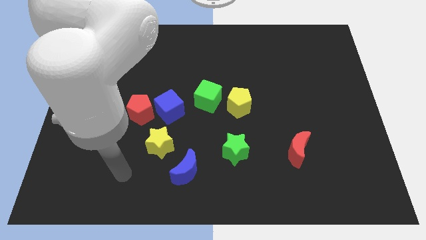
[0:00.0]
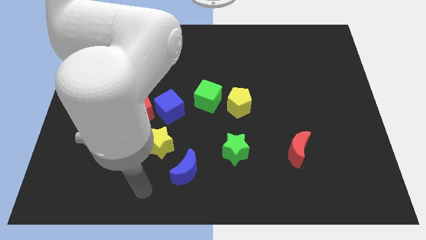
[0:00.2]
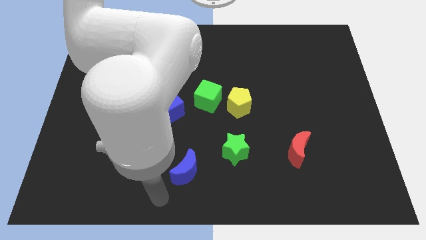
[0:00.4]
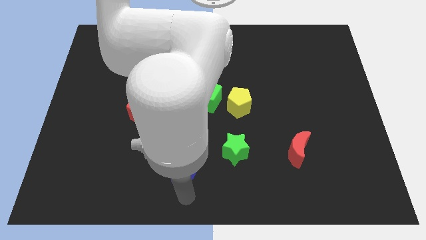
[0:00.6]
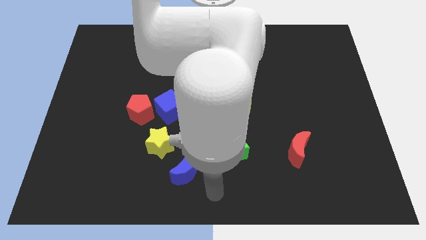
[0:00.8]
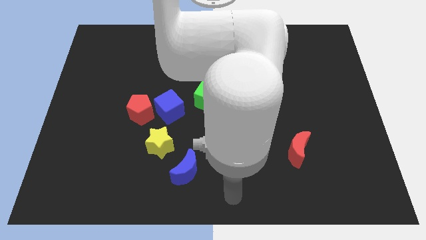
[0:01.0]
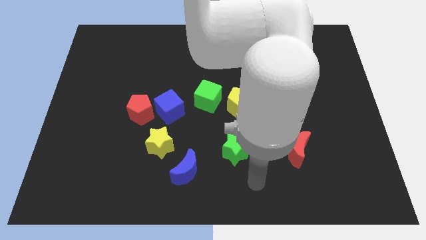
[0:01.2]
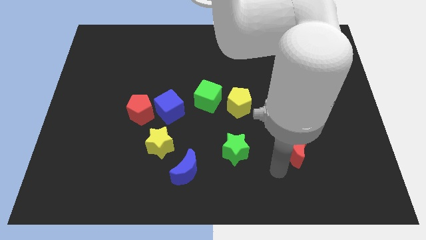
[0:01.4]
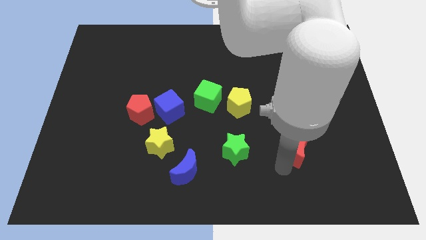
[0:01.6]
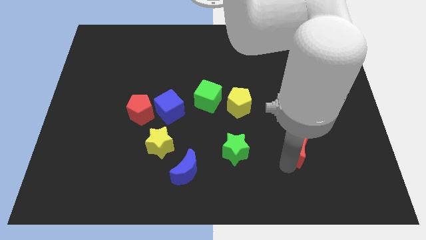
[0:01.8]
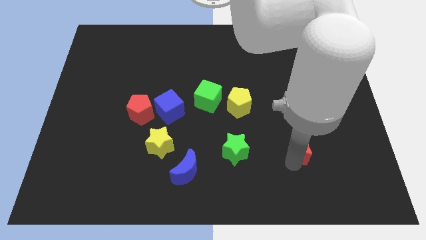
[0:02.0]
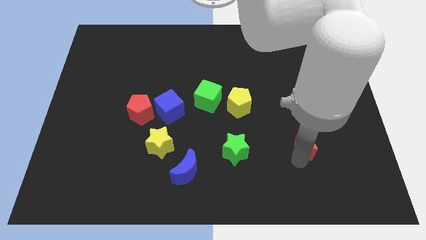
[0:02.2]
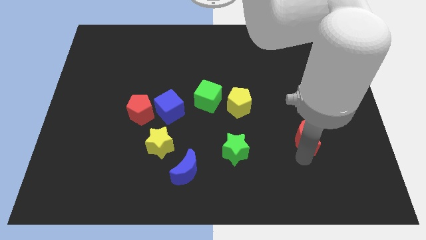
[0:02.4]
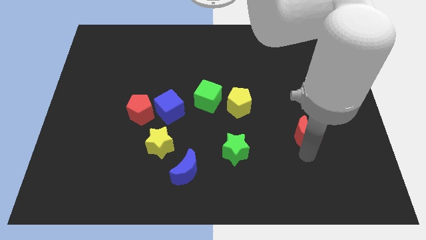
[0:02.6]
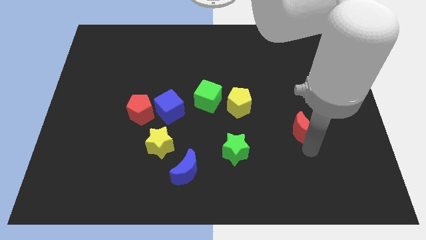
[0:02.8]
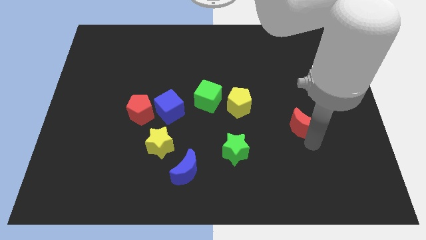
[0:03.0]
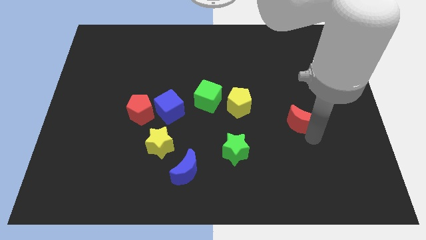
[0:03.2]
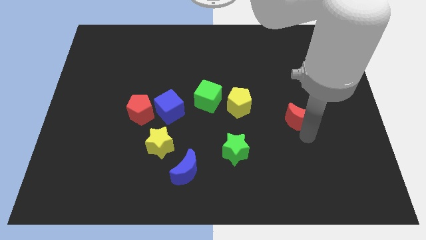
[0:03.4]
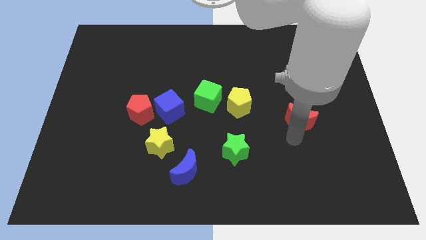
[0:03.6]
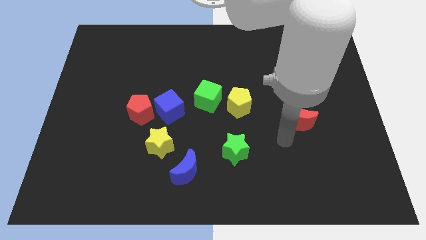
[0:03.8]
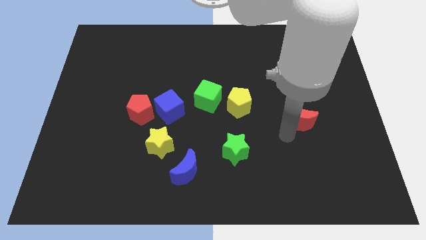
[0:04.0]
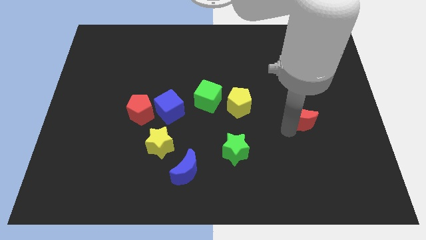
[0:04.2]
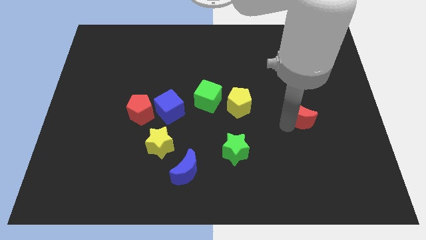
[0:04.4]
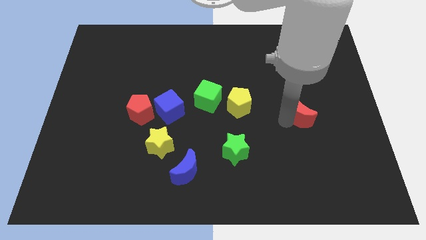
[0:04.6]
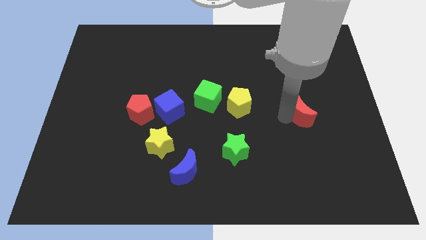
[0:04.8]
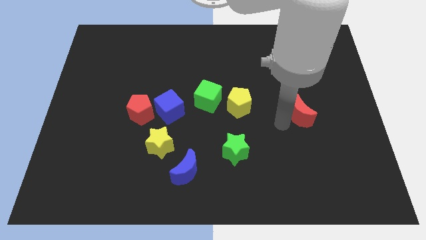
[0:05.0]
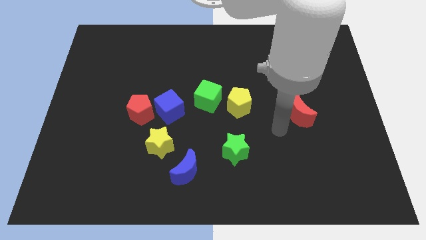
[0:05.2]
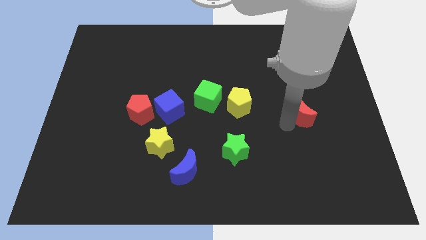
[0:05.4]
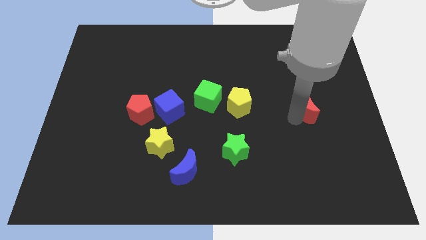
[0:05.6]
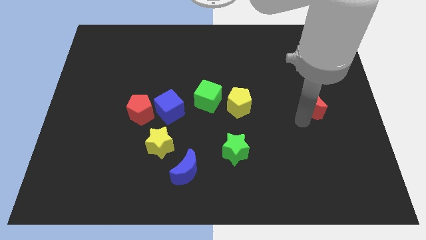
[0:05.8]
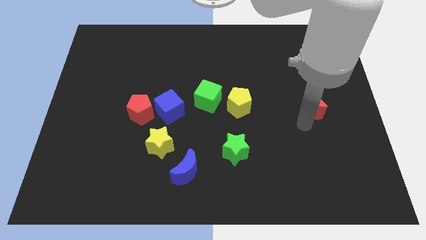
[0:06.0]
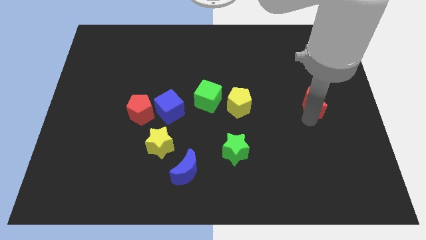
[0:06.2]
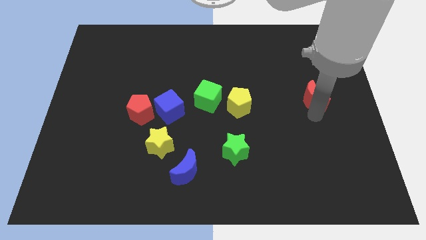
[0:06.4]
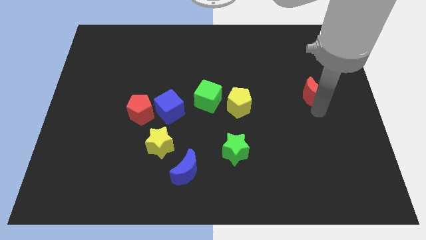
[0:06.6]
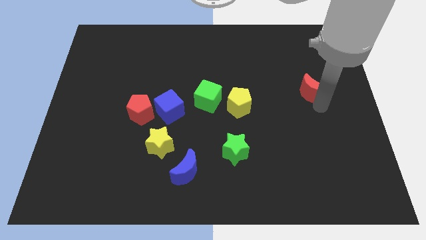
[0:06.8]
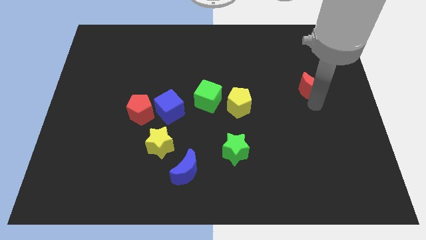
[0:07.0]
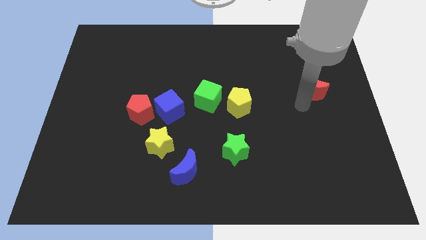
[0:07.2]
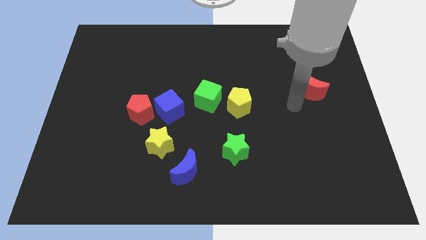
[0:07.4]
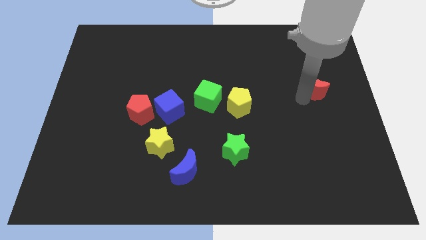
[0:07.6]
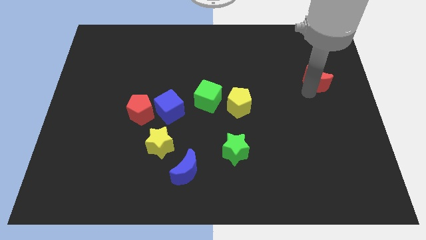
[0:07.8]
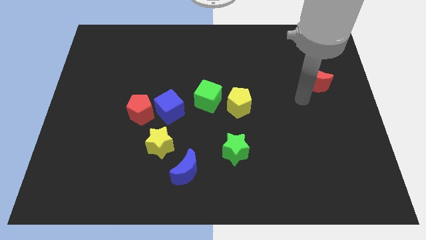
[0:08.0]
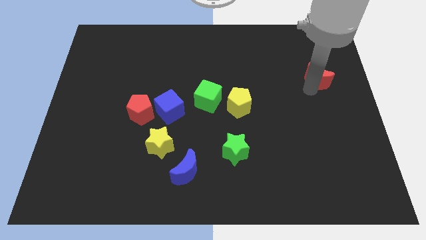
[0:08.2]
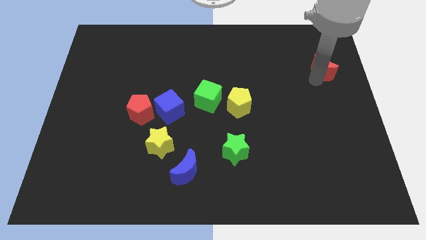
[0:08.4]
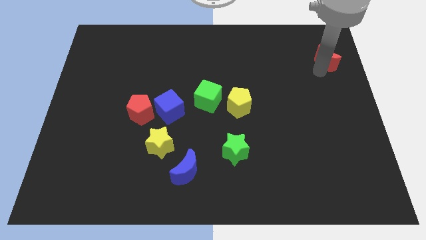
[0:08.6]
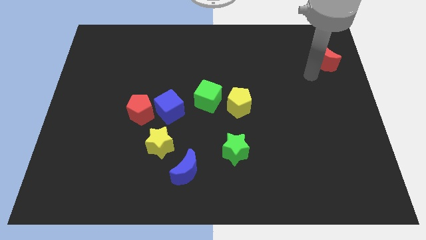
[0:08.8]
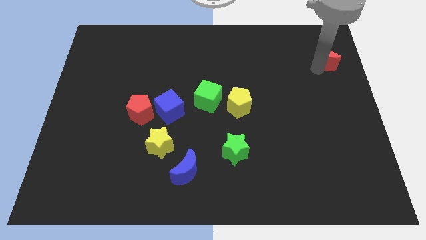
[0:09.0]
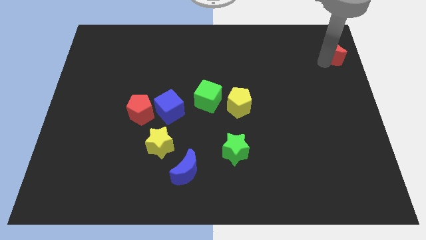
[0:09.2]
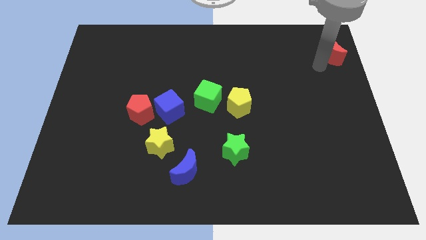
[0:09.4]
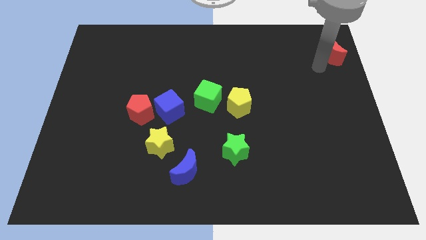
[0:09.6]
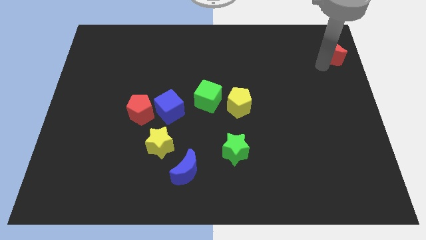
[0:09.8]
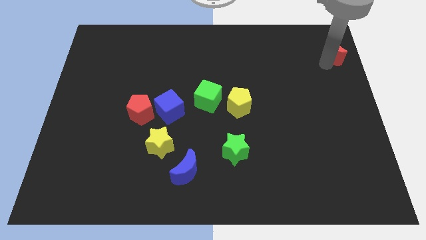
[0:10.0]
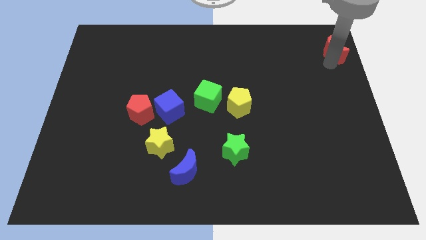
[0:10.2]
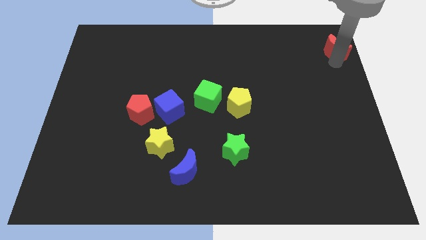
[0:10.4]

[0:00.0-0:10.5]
push the red moon to the top right of the board

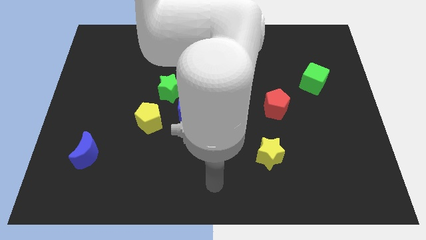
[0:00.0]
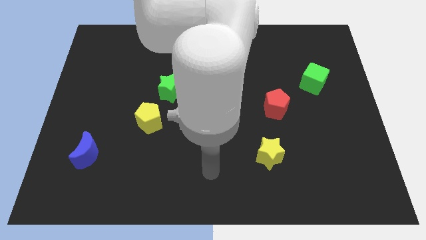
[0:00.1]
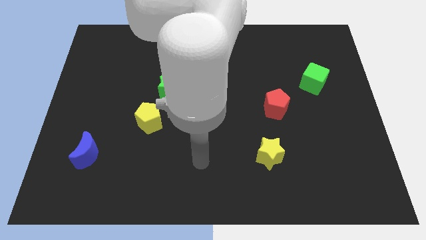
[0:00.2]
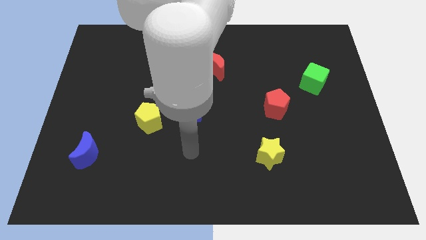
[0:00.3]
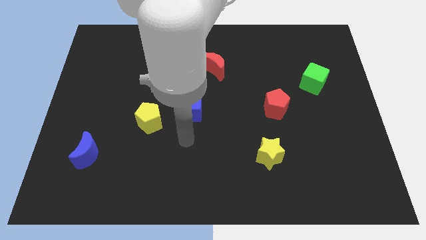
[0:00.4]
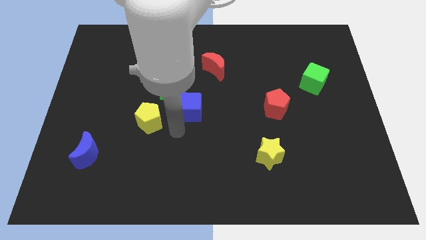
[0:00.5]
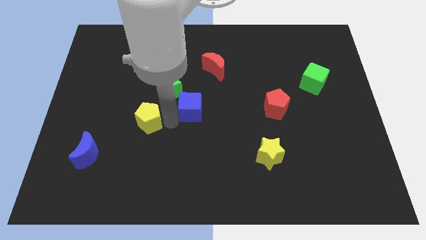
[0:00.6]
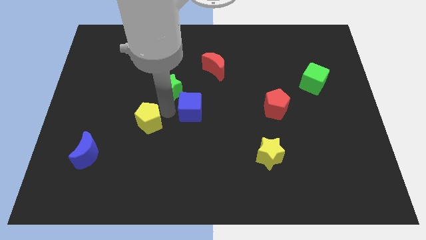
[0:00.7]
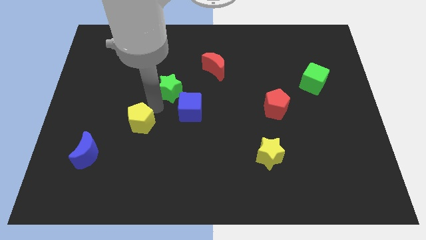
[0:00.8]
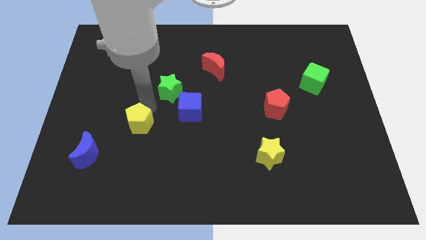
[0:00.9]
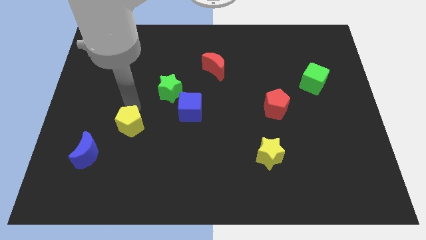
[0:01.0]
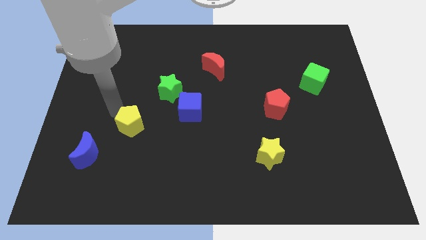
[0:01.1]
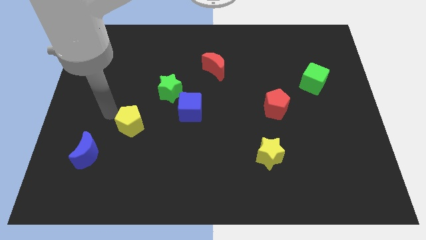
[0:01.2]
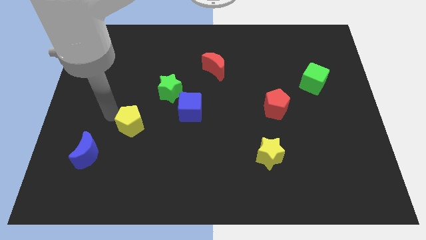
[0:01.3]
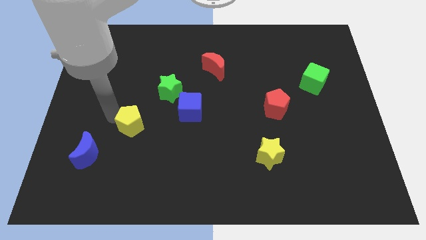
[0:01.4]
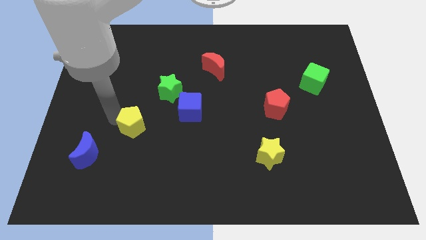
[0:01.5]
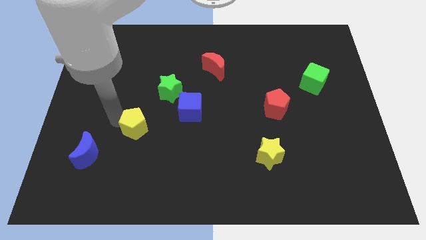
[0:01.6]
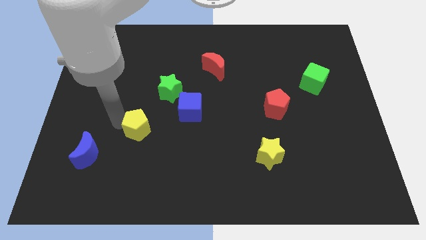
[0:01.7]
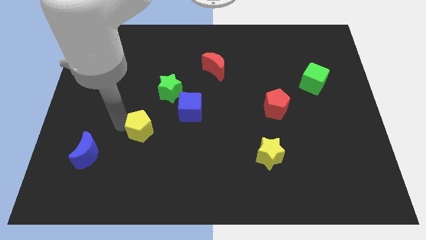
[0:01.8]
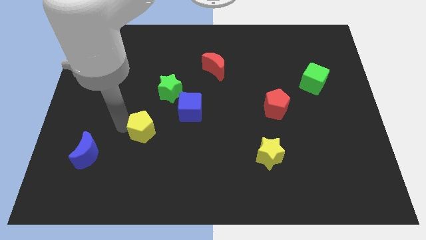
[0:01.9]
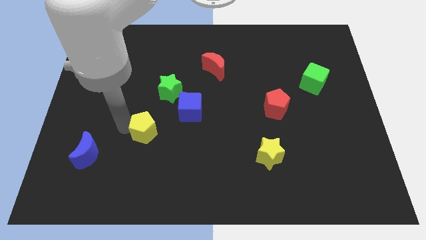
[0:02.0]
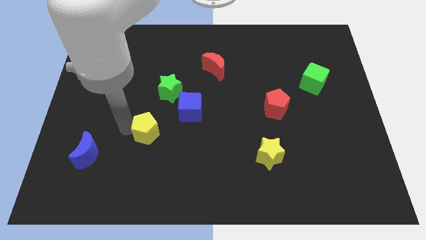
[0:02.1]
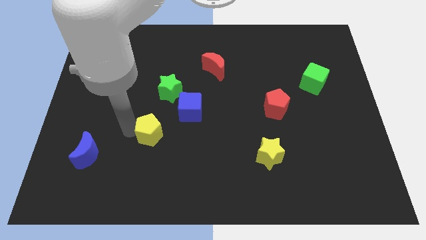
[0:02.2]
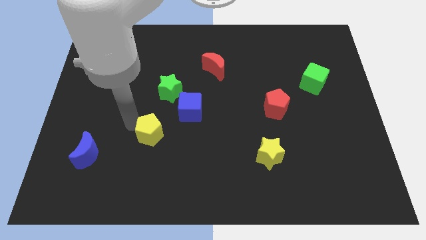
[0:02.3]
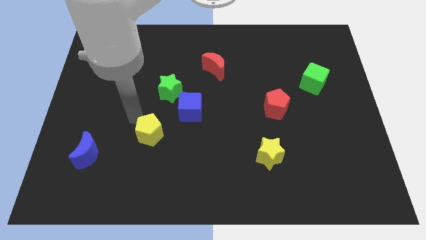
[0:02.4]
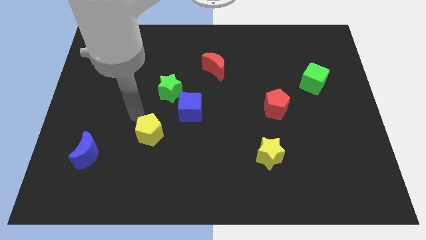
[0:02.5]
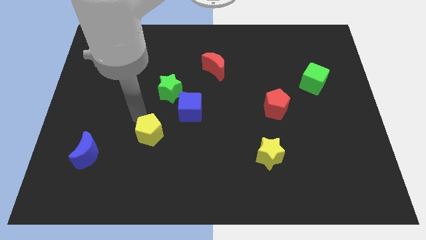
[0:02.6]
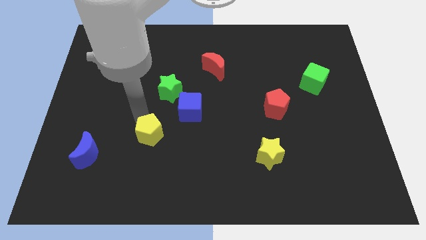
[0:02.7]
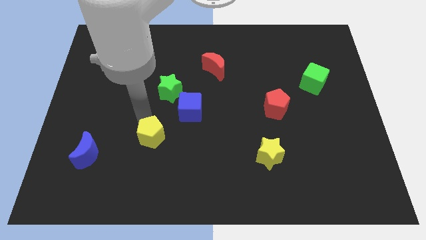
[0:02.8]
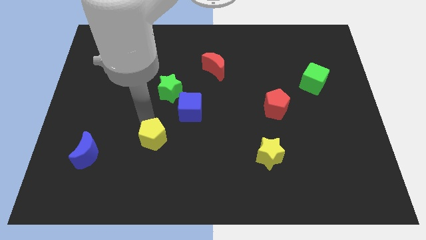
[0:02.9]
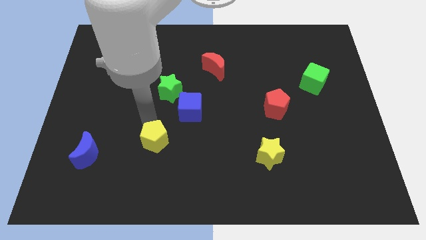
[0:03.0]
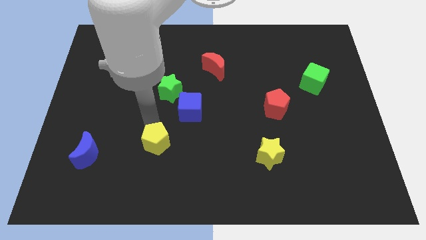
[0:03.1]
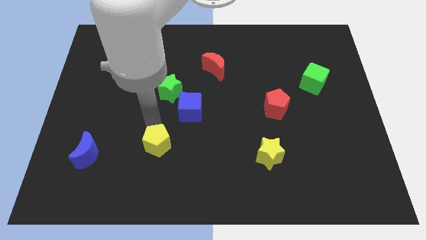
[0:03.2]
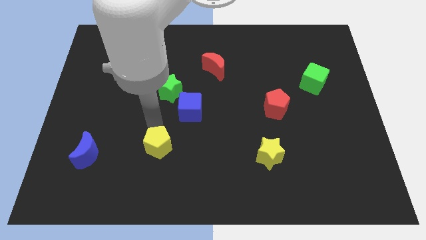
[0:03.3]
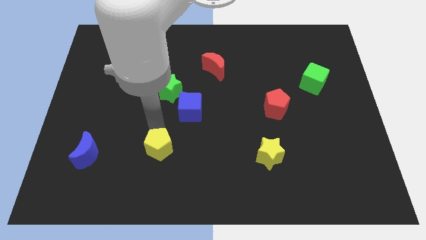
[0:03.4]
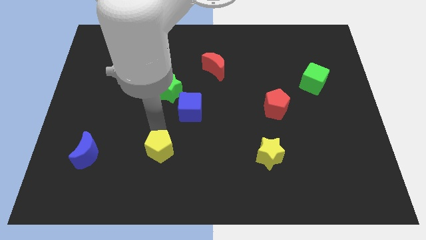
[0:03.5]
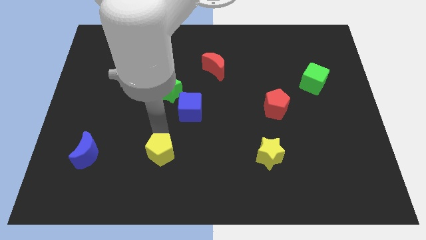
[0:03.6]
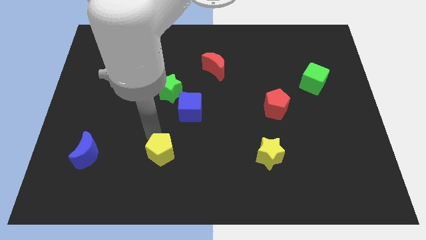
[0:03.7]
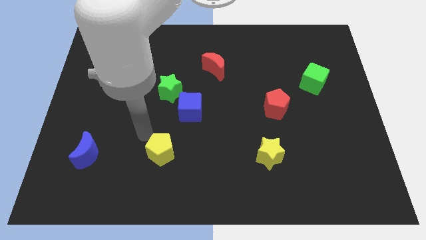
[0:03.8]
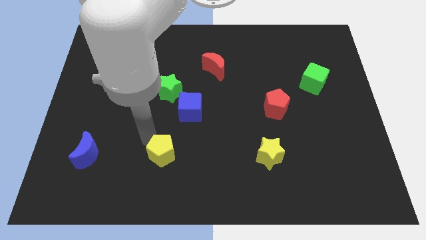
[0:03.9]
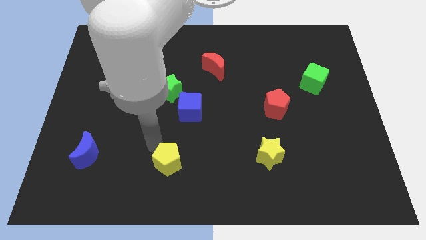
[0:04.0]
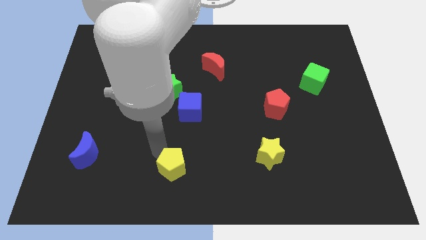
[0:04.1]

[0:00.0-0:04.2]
put the yellow pentagon to the bottom
